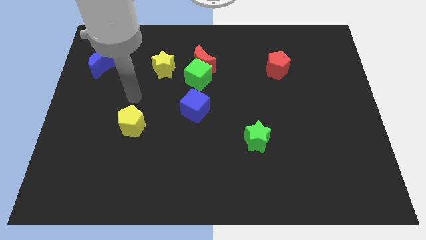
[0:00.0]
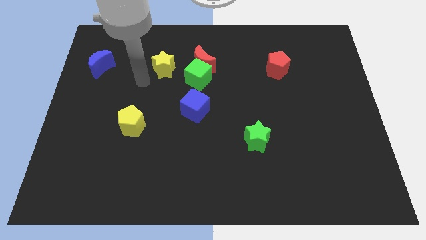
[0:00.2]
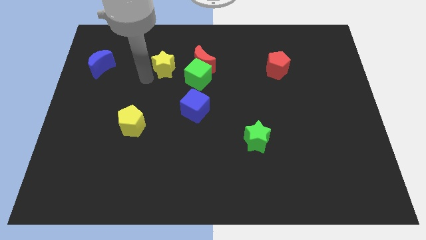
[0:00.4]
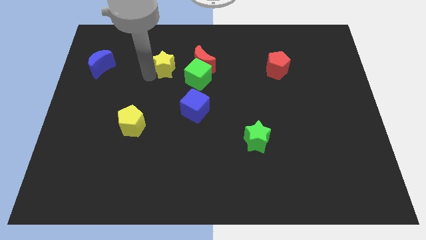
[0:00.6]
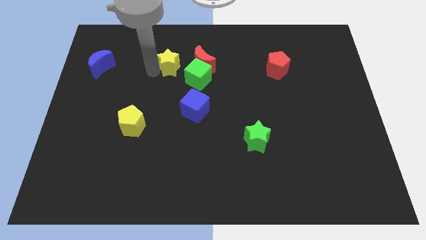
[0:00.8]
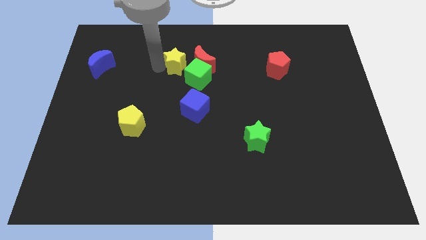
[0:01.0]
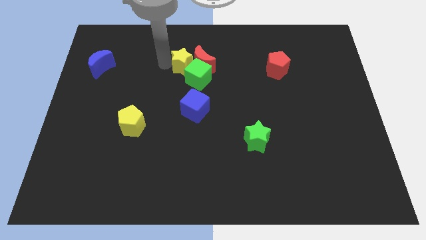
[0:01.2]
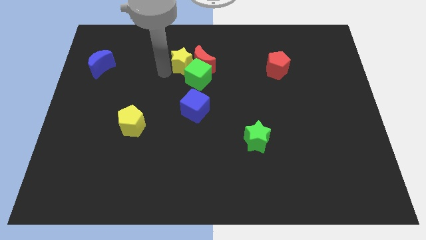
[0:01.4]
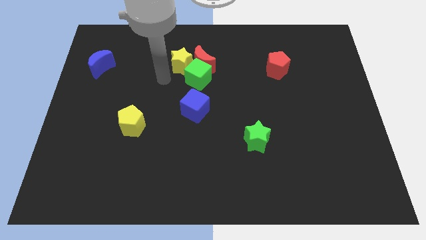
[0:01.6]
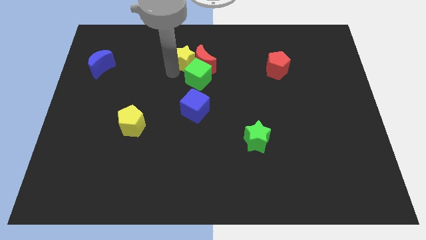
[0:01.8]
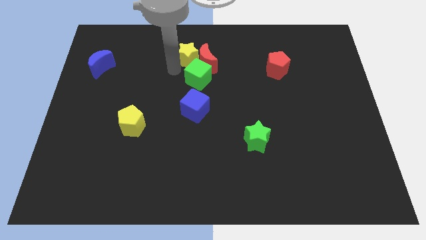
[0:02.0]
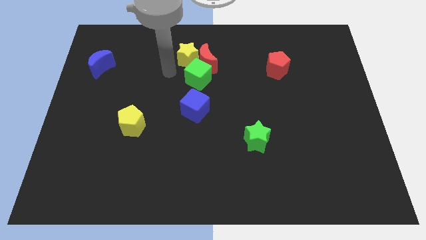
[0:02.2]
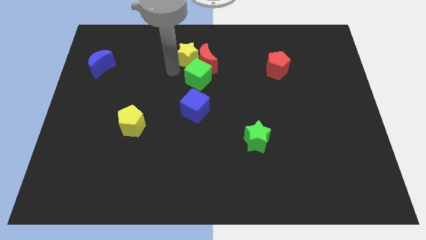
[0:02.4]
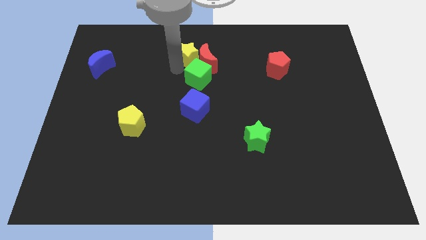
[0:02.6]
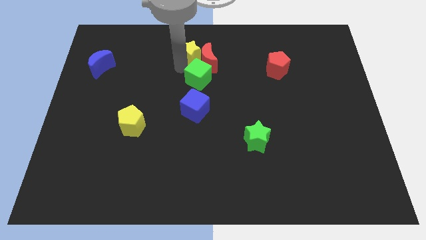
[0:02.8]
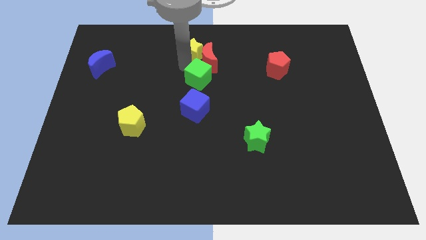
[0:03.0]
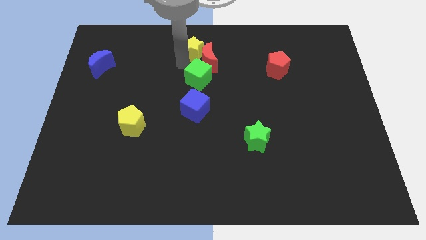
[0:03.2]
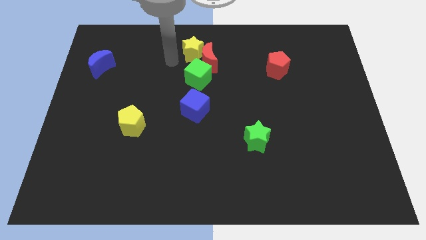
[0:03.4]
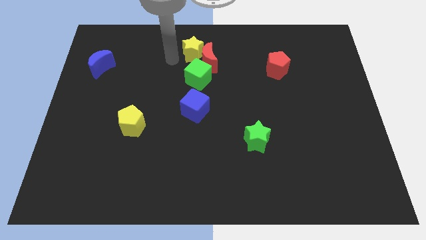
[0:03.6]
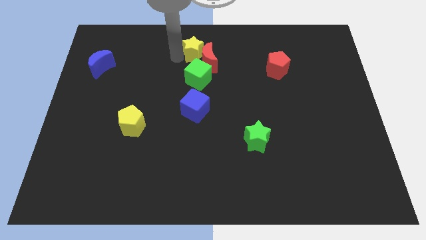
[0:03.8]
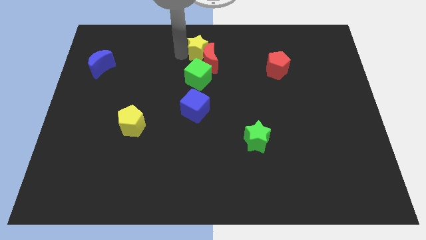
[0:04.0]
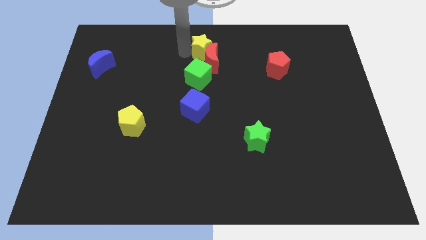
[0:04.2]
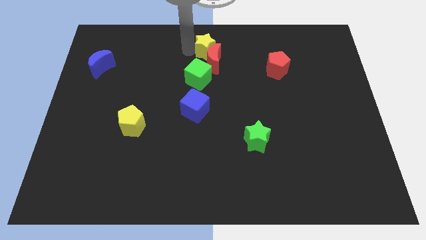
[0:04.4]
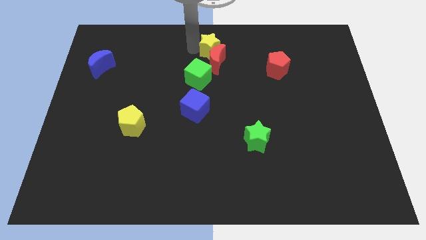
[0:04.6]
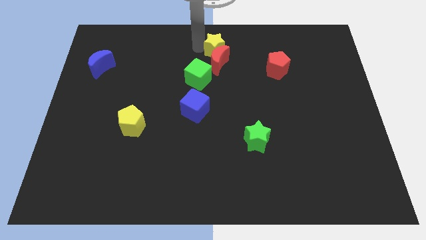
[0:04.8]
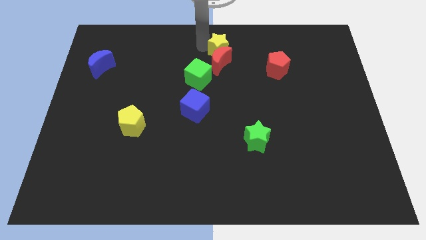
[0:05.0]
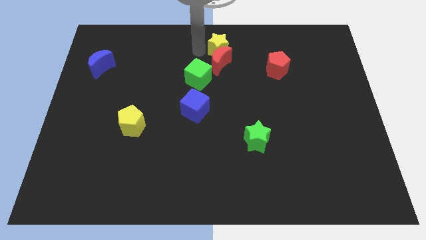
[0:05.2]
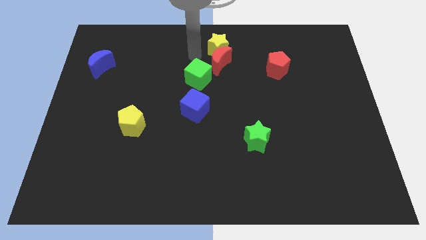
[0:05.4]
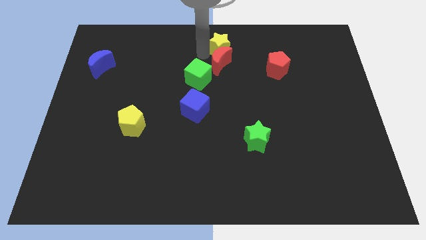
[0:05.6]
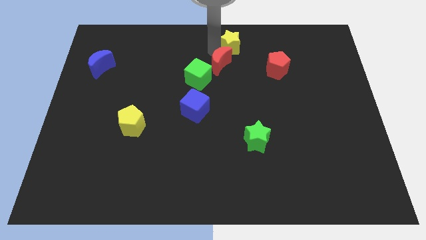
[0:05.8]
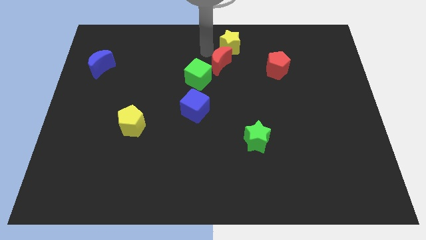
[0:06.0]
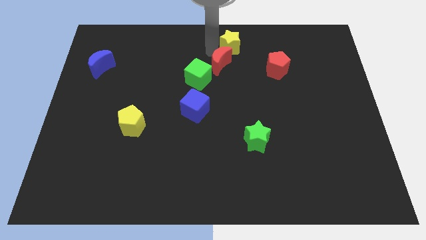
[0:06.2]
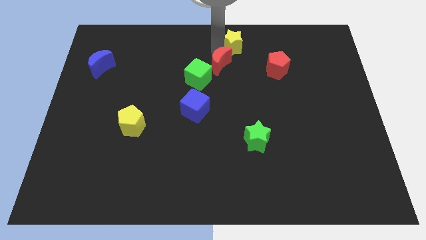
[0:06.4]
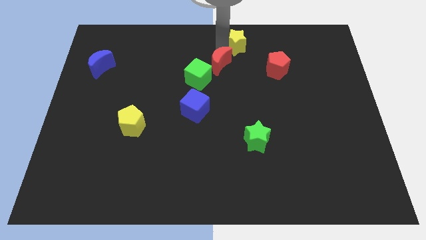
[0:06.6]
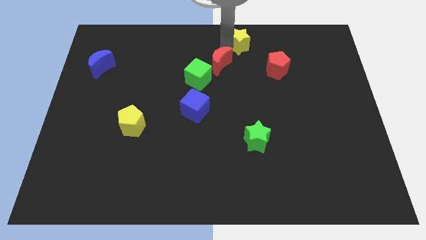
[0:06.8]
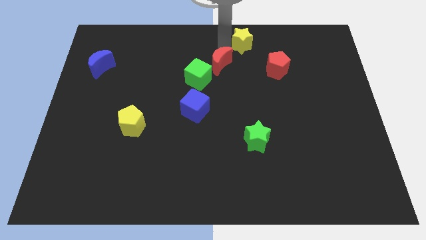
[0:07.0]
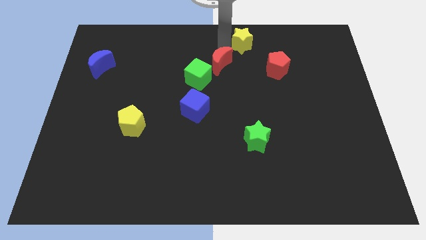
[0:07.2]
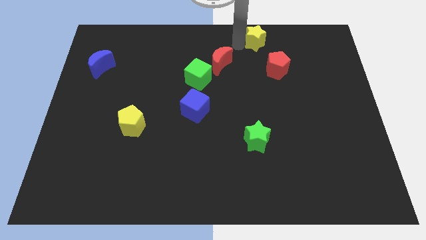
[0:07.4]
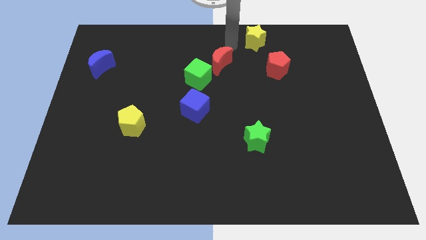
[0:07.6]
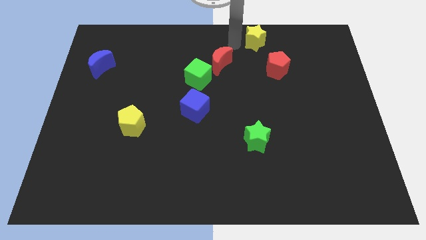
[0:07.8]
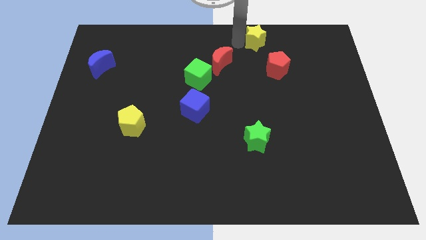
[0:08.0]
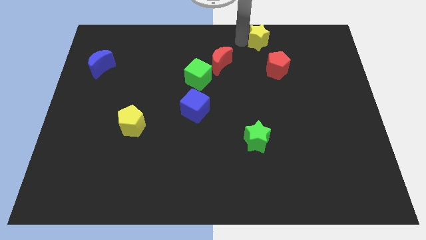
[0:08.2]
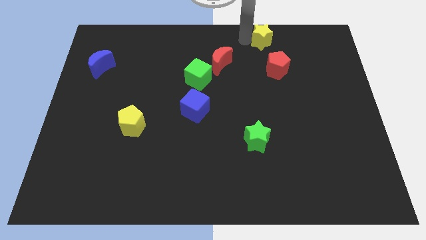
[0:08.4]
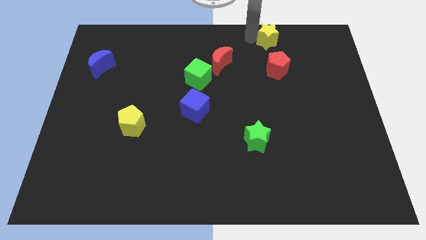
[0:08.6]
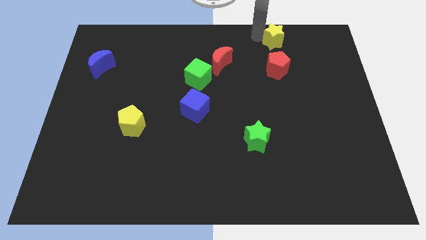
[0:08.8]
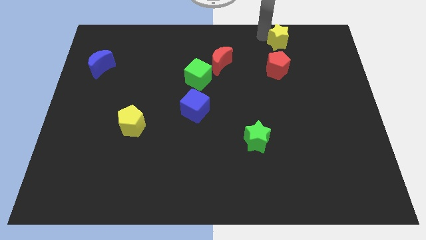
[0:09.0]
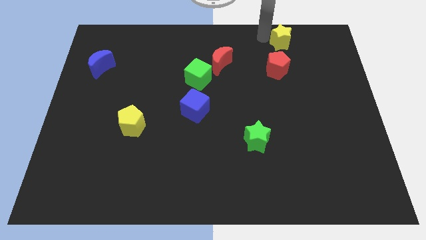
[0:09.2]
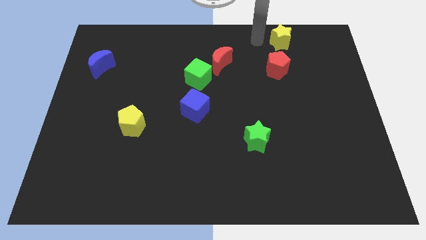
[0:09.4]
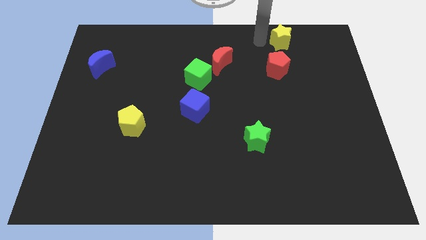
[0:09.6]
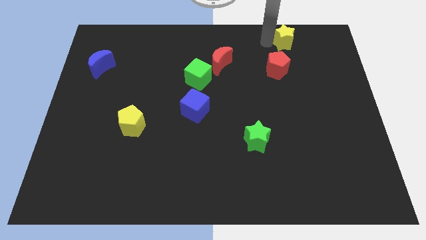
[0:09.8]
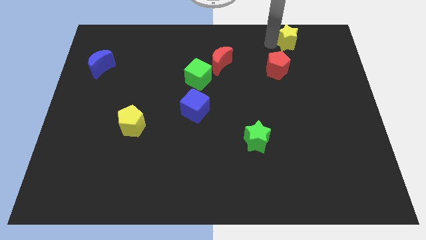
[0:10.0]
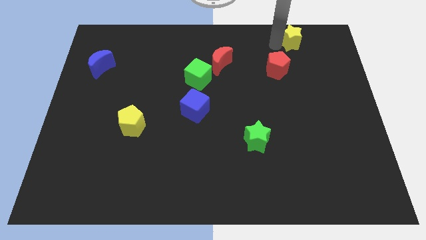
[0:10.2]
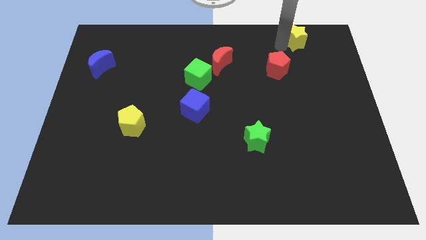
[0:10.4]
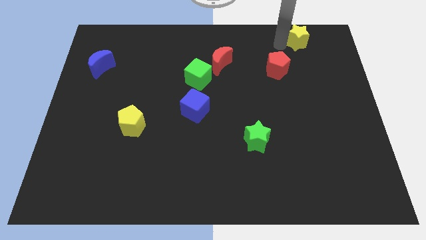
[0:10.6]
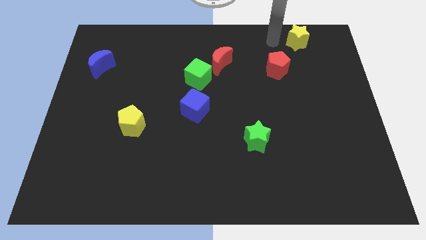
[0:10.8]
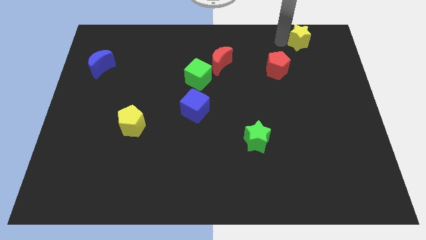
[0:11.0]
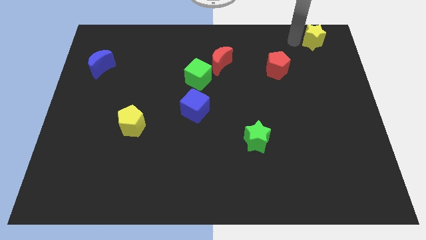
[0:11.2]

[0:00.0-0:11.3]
put the yellow star to the upper right corner

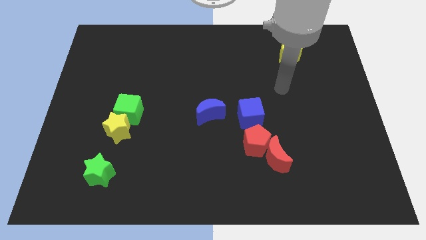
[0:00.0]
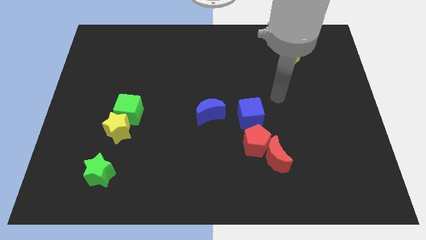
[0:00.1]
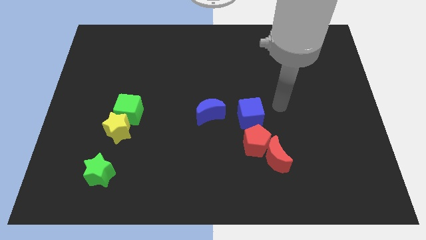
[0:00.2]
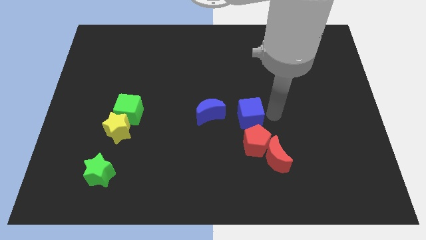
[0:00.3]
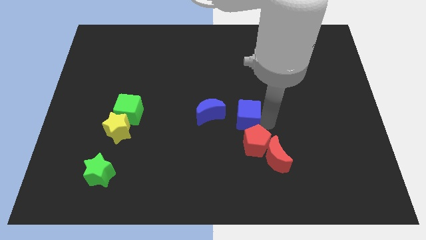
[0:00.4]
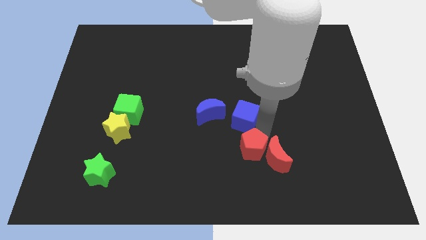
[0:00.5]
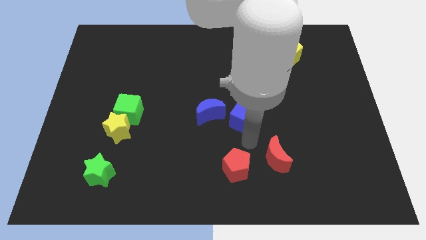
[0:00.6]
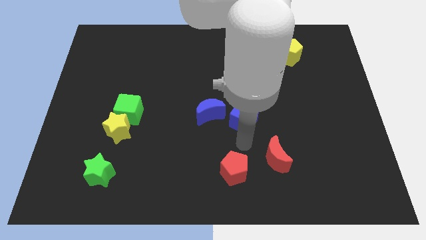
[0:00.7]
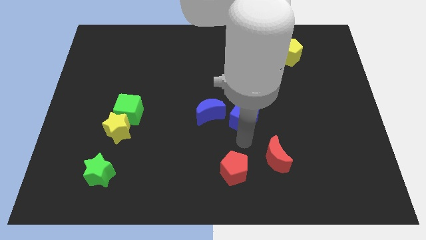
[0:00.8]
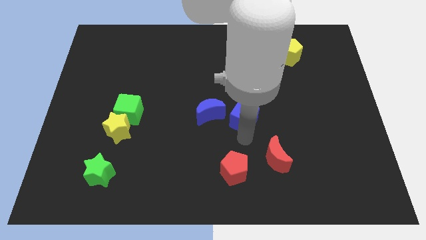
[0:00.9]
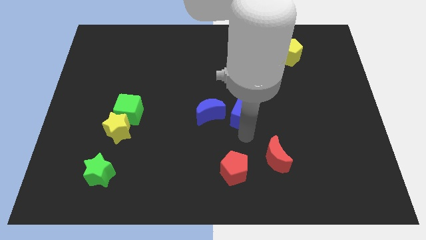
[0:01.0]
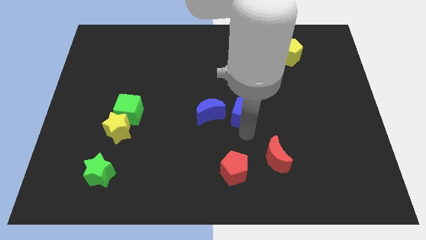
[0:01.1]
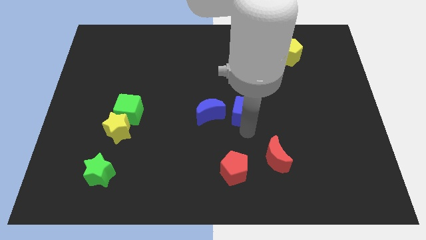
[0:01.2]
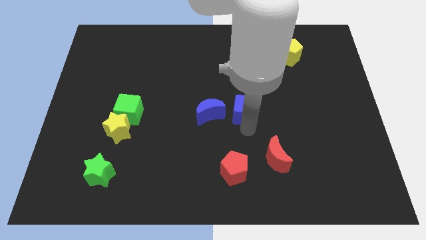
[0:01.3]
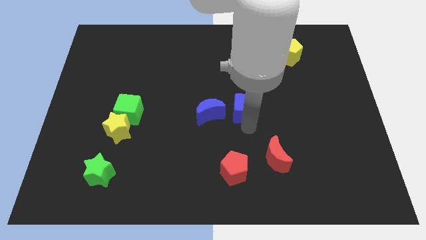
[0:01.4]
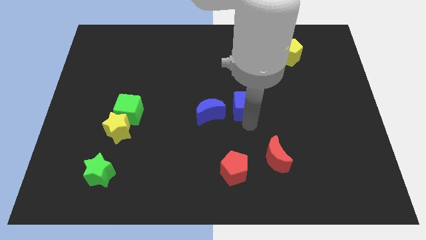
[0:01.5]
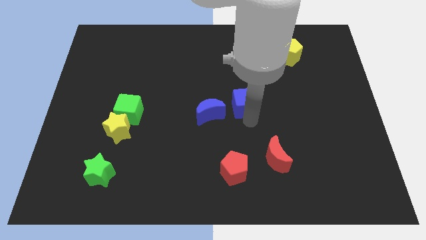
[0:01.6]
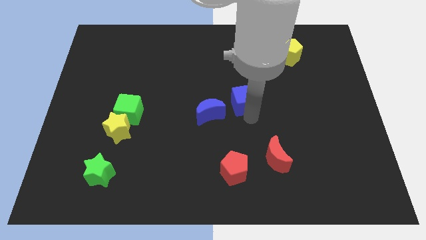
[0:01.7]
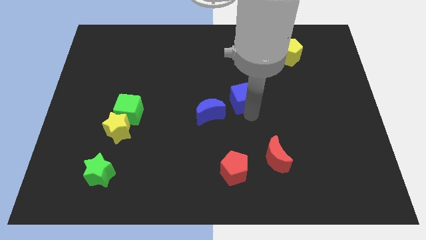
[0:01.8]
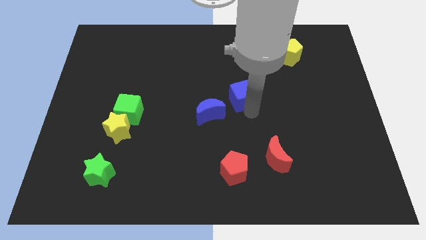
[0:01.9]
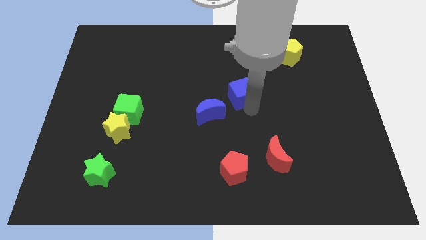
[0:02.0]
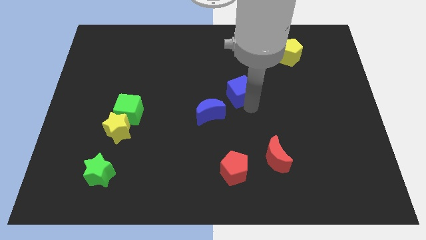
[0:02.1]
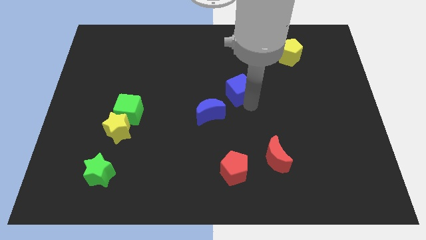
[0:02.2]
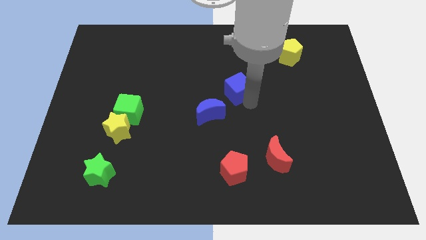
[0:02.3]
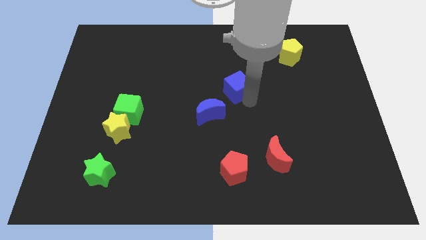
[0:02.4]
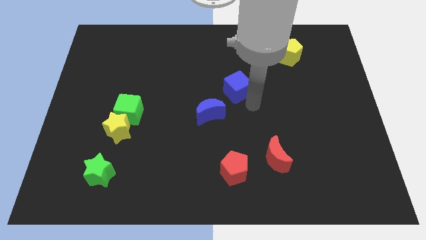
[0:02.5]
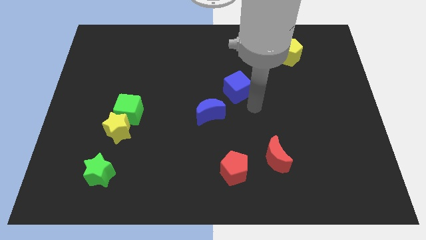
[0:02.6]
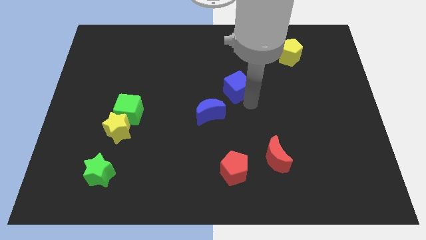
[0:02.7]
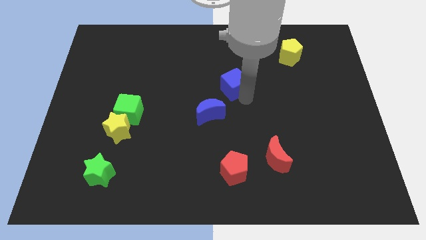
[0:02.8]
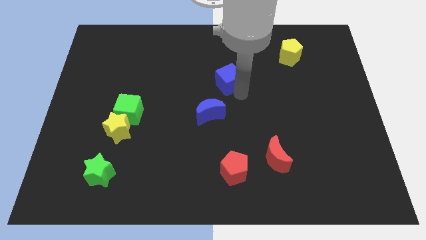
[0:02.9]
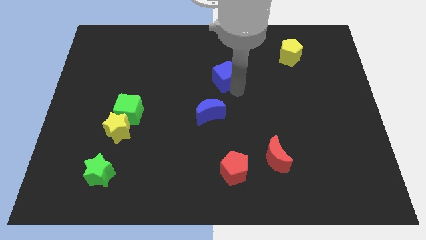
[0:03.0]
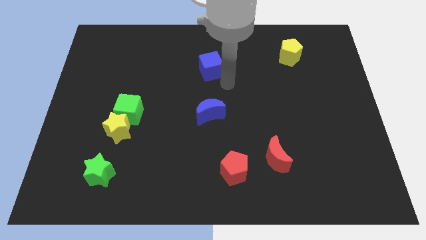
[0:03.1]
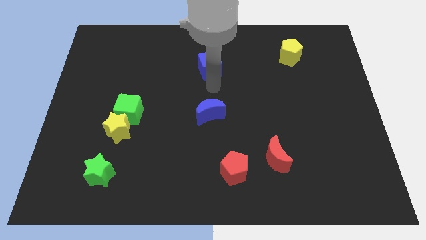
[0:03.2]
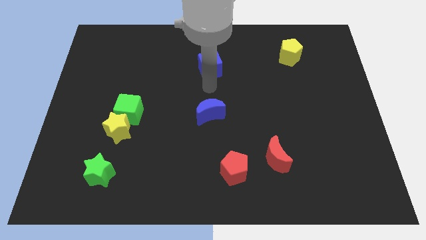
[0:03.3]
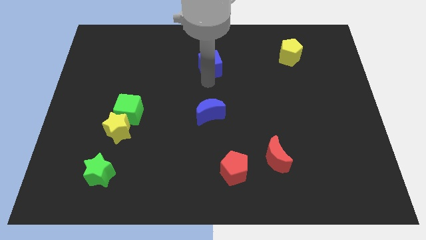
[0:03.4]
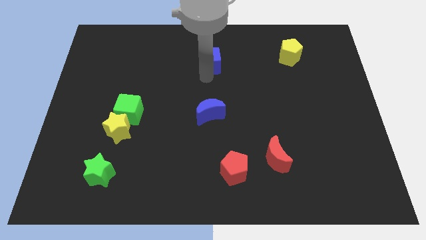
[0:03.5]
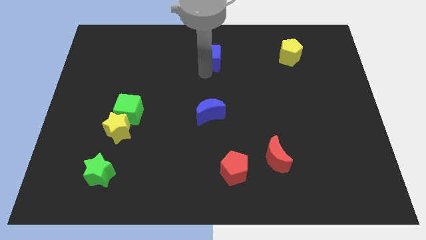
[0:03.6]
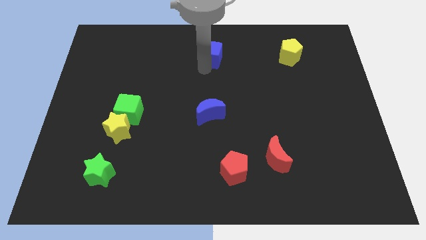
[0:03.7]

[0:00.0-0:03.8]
push the blue cube to the top side
